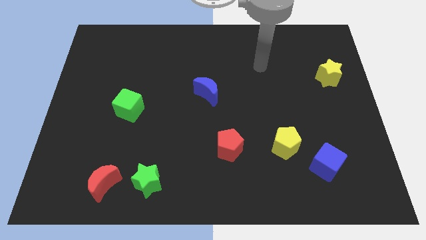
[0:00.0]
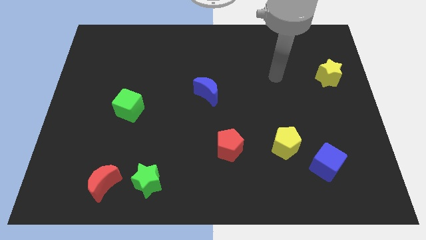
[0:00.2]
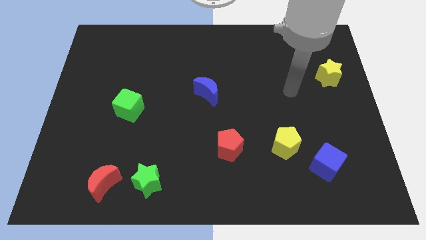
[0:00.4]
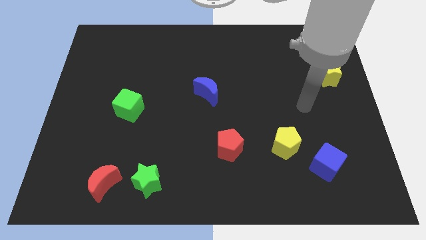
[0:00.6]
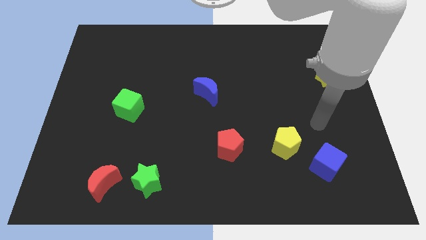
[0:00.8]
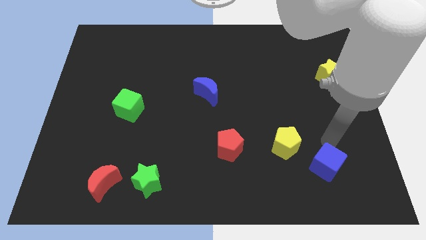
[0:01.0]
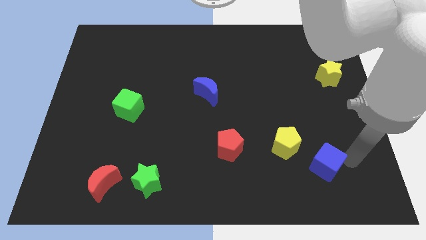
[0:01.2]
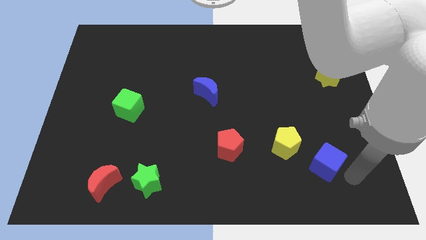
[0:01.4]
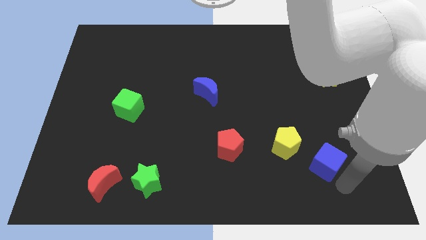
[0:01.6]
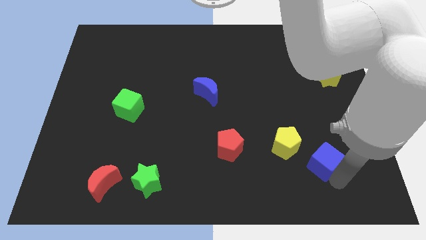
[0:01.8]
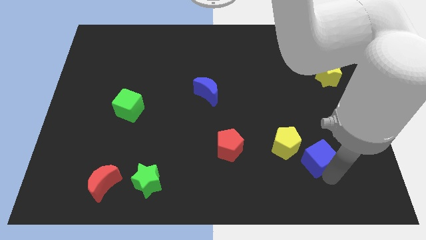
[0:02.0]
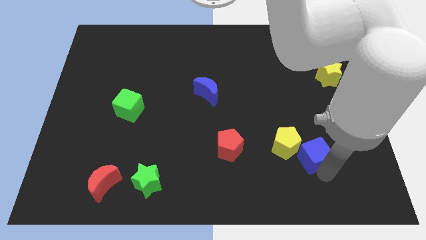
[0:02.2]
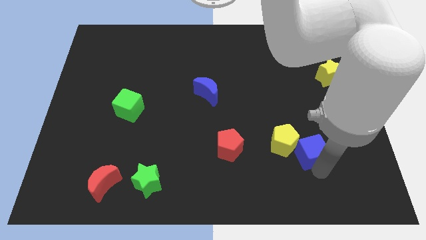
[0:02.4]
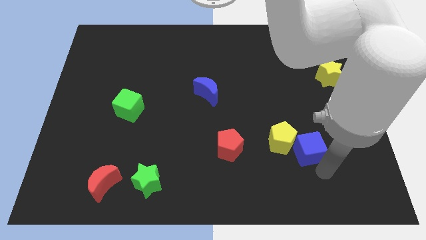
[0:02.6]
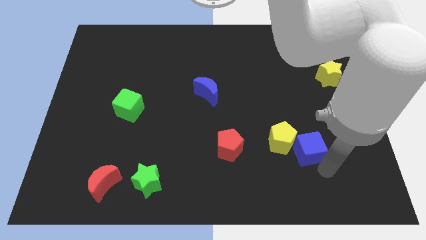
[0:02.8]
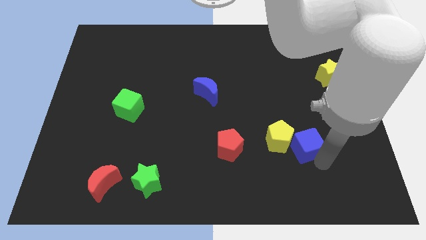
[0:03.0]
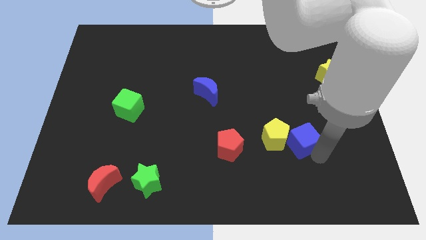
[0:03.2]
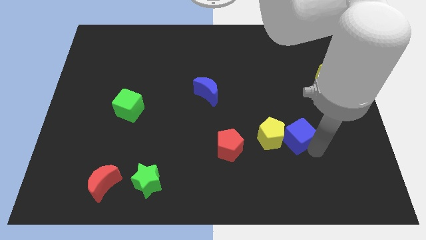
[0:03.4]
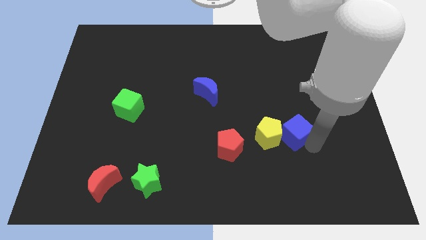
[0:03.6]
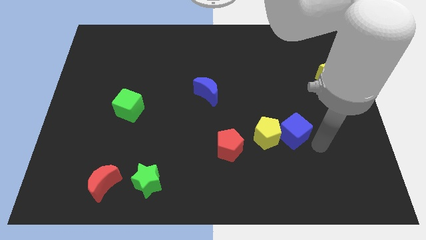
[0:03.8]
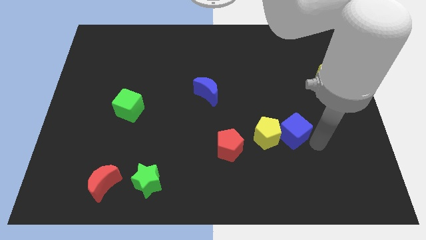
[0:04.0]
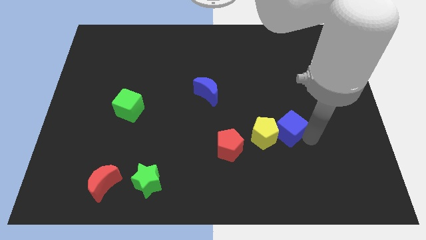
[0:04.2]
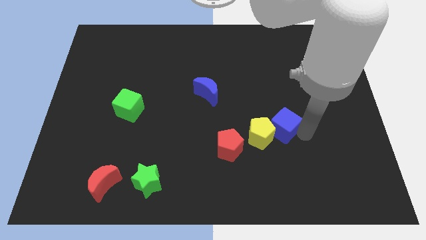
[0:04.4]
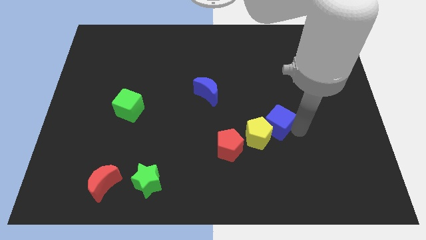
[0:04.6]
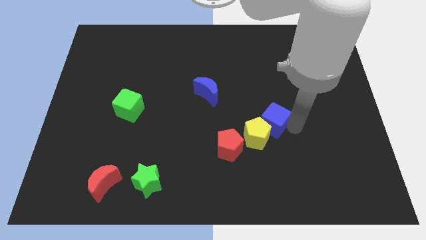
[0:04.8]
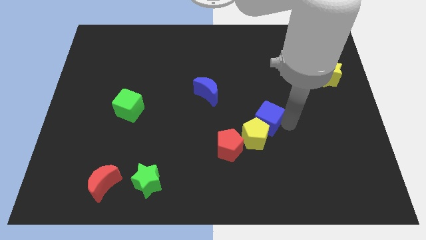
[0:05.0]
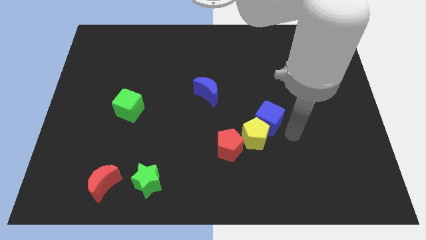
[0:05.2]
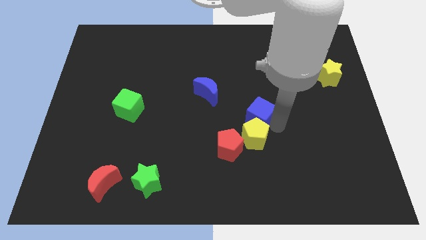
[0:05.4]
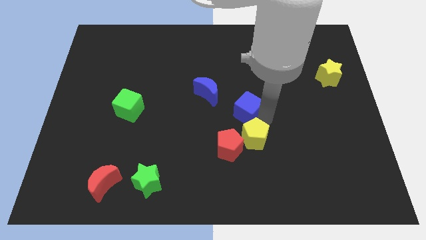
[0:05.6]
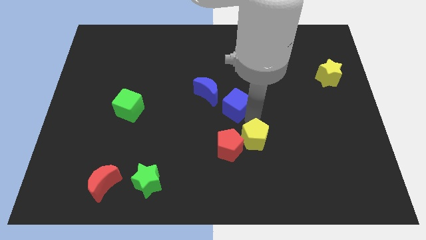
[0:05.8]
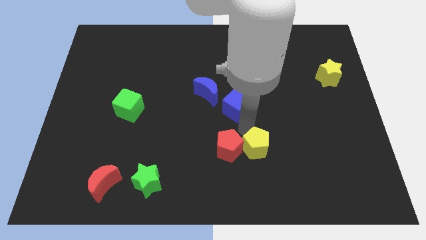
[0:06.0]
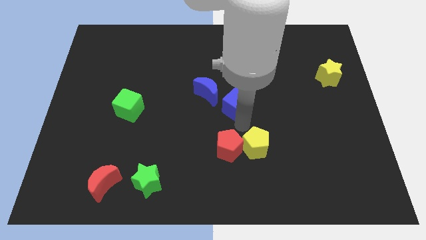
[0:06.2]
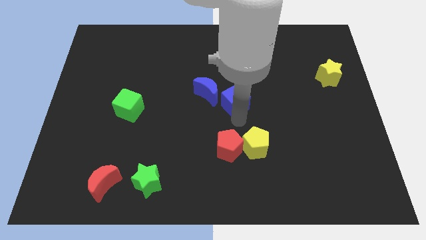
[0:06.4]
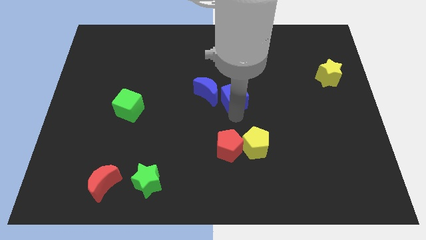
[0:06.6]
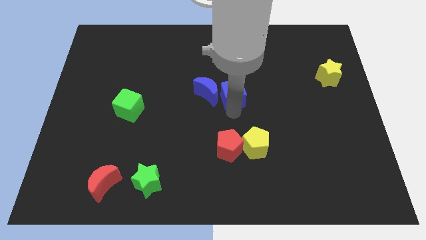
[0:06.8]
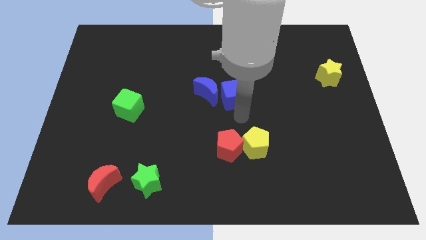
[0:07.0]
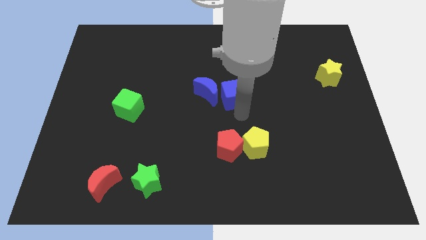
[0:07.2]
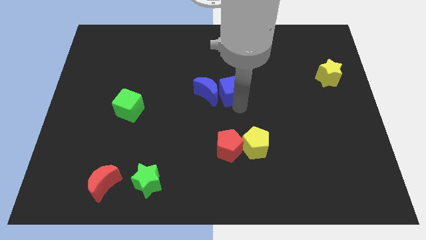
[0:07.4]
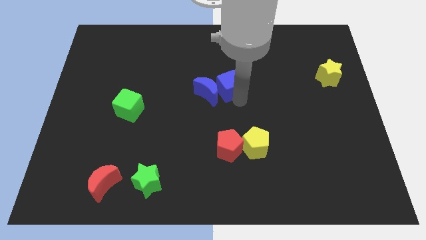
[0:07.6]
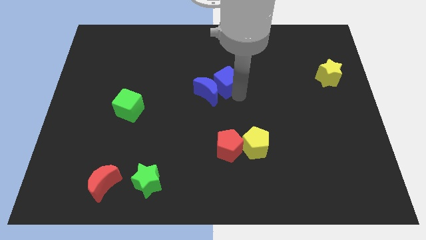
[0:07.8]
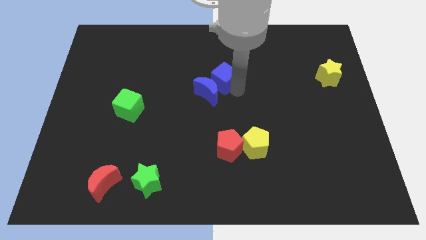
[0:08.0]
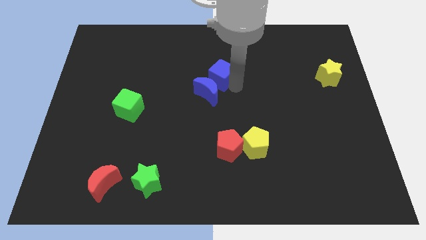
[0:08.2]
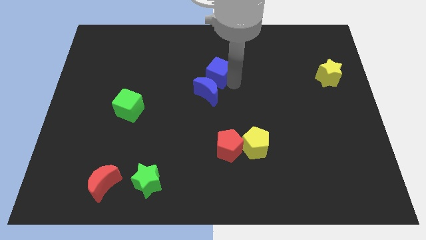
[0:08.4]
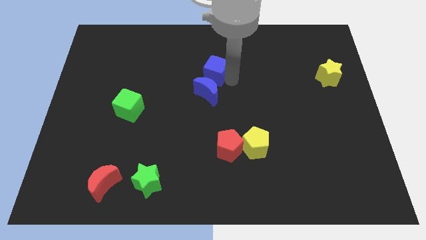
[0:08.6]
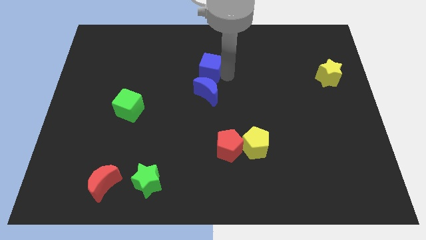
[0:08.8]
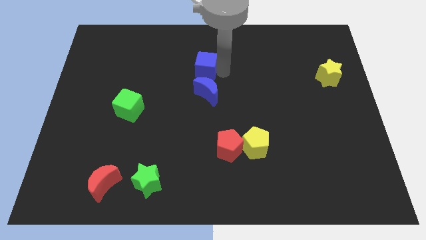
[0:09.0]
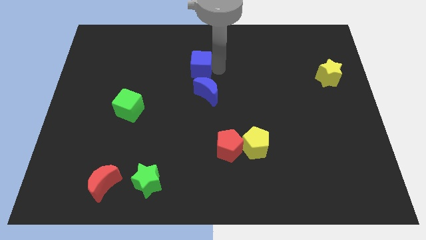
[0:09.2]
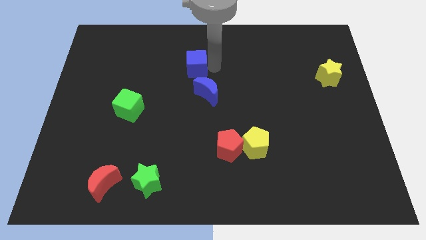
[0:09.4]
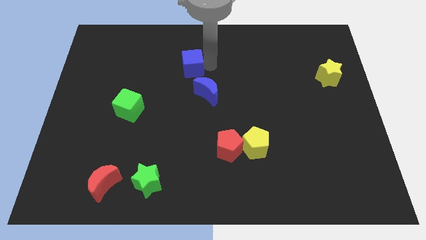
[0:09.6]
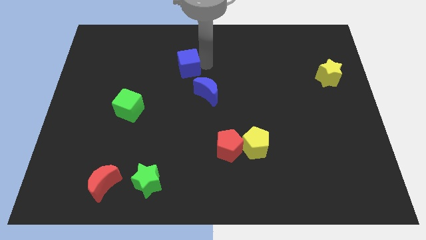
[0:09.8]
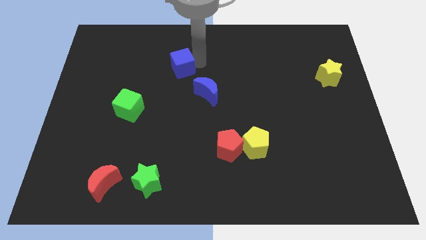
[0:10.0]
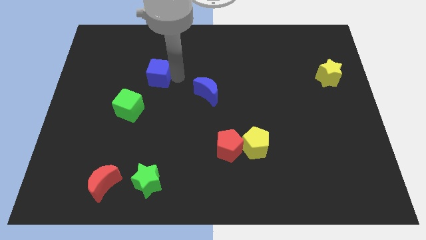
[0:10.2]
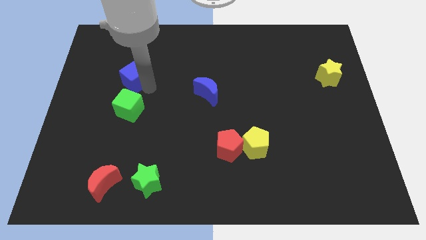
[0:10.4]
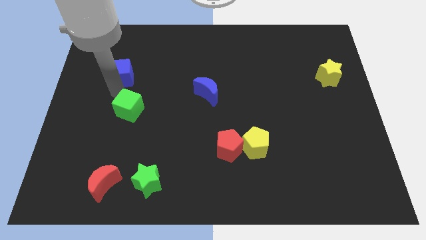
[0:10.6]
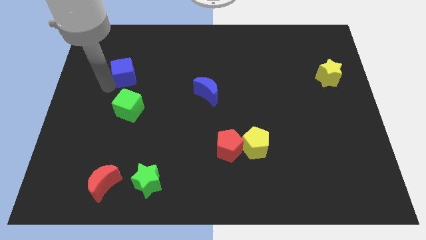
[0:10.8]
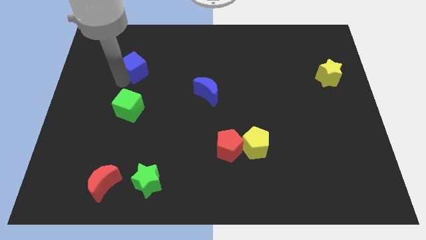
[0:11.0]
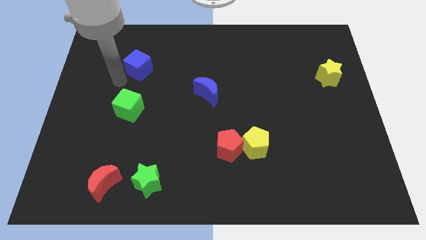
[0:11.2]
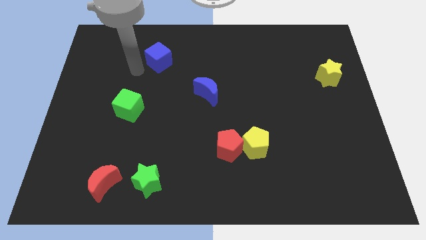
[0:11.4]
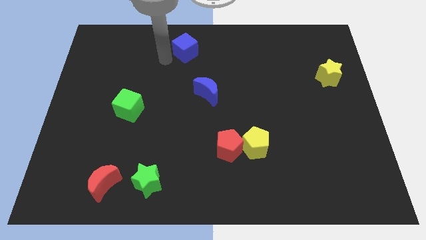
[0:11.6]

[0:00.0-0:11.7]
push the blue cube to the top

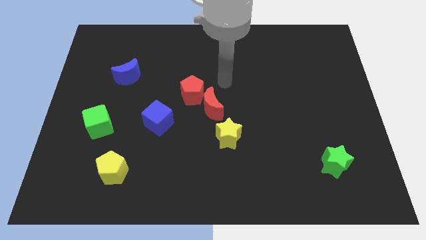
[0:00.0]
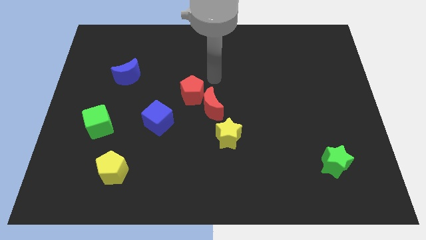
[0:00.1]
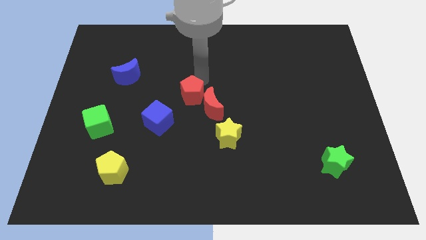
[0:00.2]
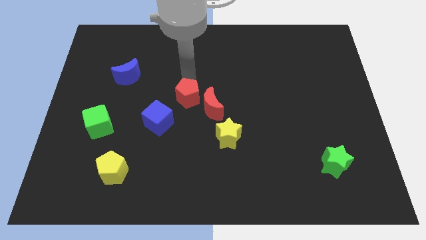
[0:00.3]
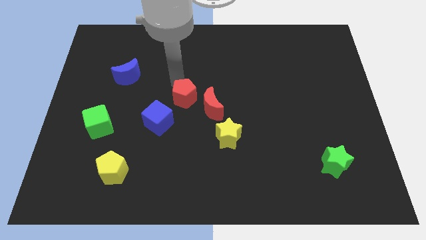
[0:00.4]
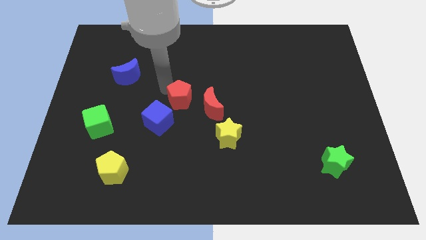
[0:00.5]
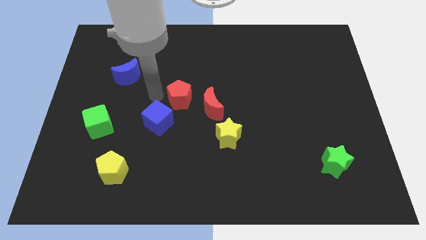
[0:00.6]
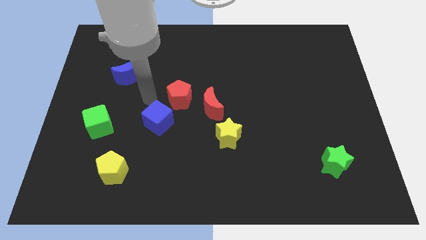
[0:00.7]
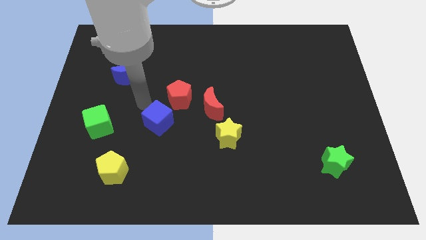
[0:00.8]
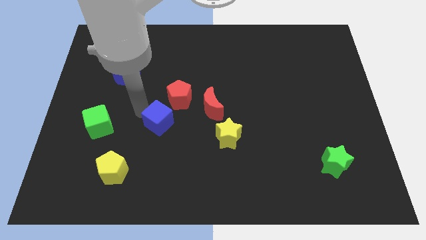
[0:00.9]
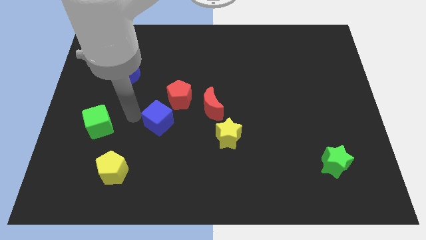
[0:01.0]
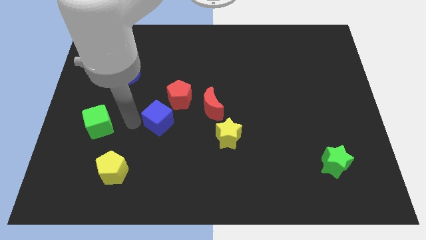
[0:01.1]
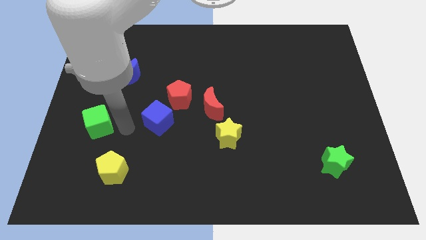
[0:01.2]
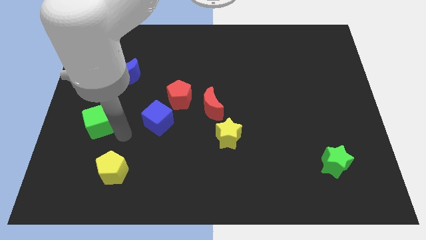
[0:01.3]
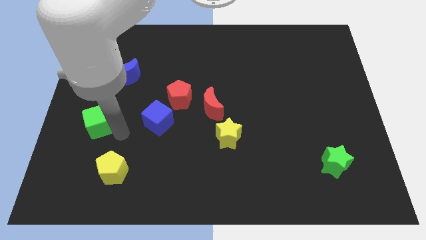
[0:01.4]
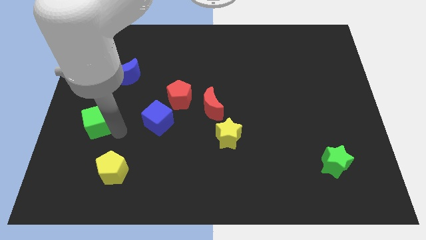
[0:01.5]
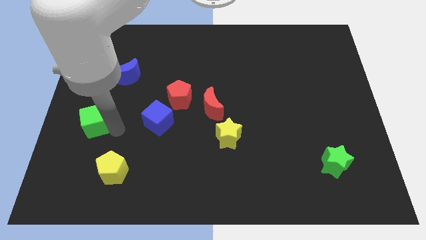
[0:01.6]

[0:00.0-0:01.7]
slide the green cube to the center left
